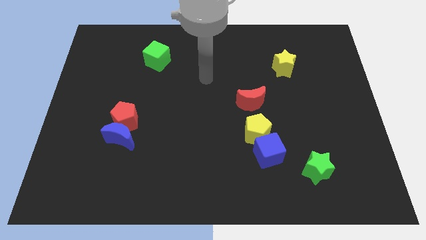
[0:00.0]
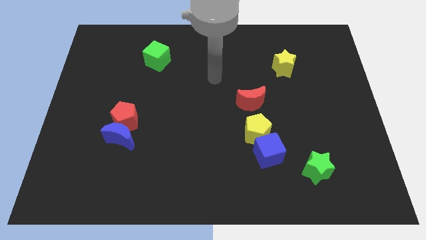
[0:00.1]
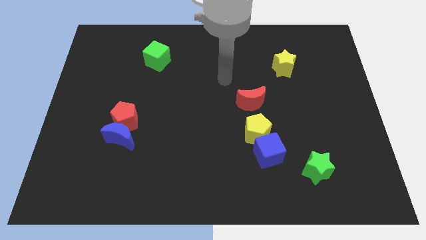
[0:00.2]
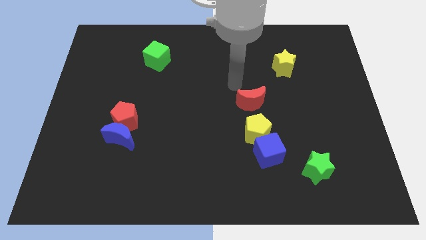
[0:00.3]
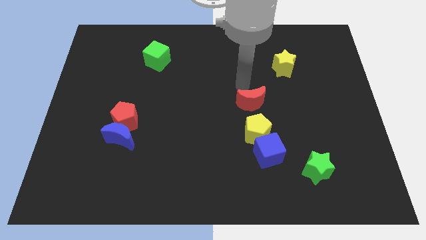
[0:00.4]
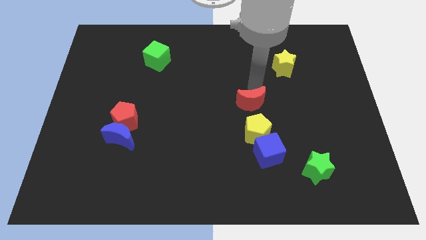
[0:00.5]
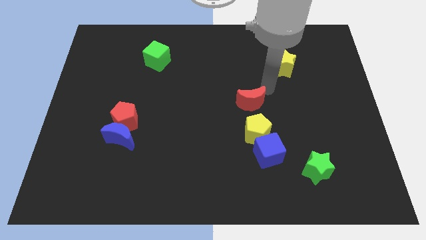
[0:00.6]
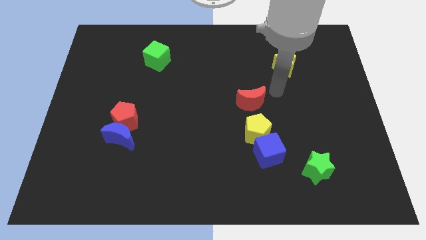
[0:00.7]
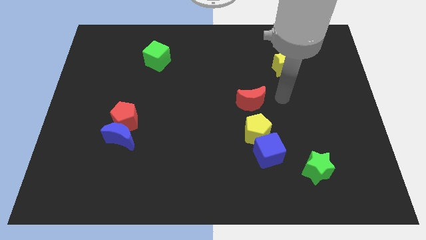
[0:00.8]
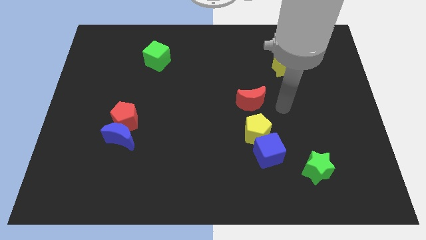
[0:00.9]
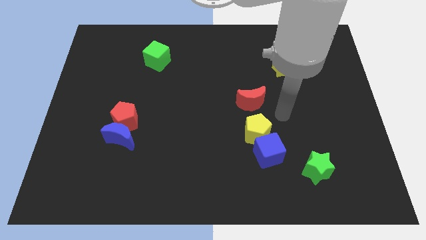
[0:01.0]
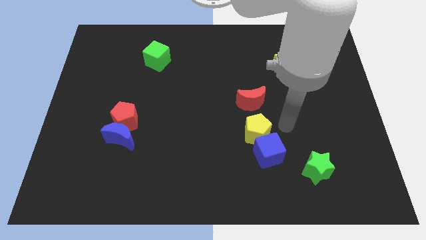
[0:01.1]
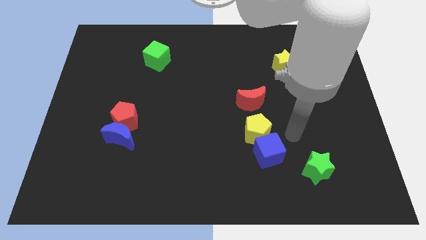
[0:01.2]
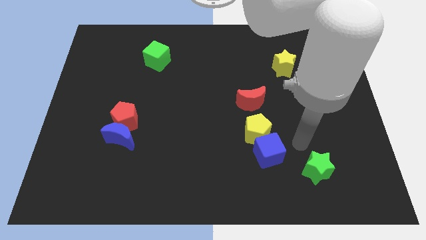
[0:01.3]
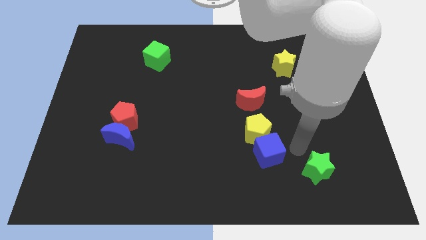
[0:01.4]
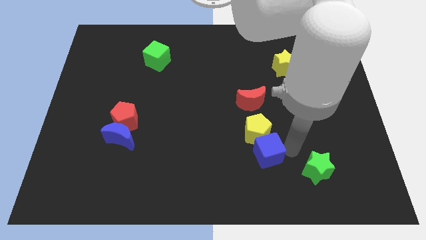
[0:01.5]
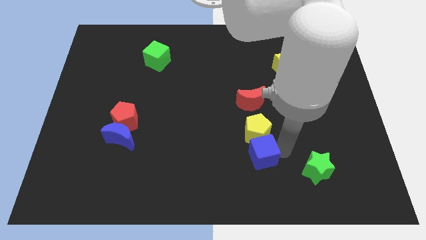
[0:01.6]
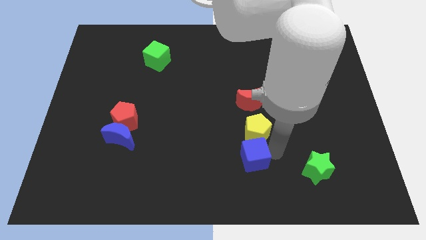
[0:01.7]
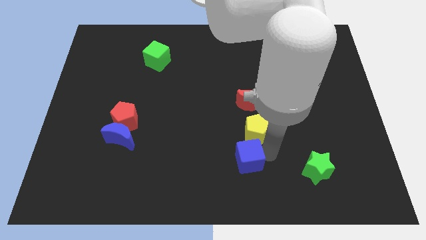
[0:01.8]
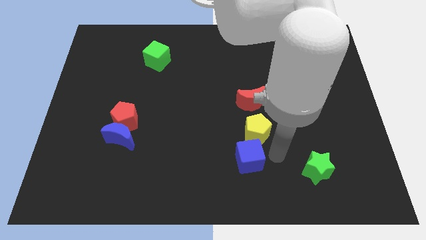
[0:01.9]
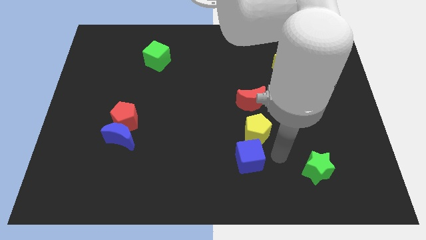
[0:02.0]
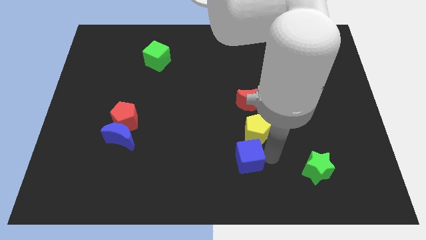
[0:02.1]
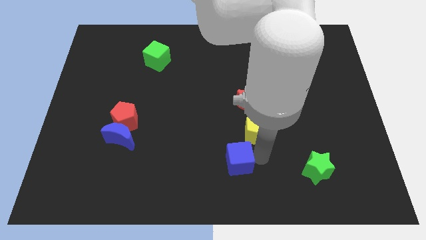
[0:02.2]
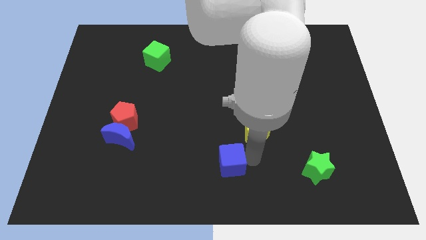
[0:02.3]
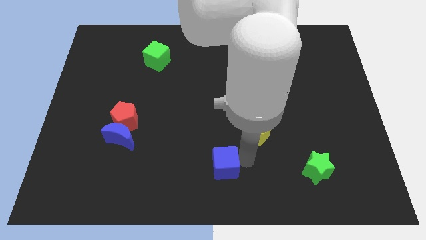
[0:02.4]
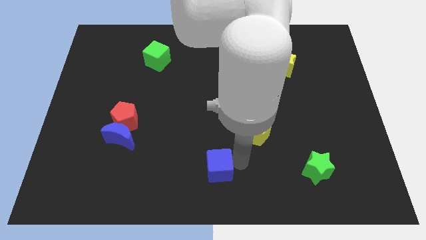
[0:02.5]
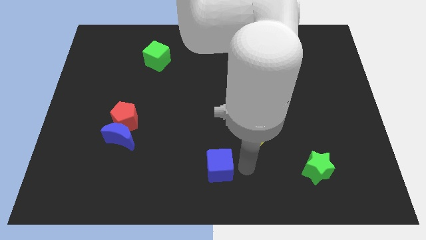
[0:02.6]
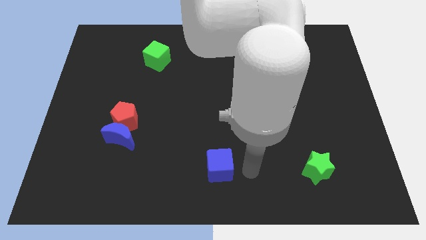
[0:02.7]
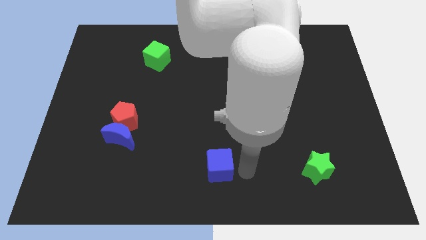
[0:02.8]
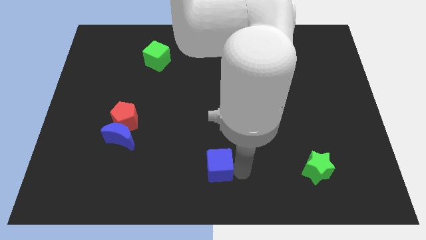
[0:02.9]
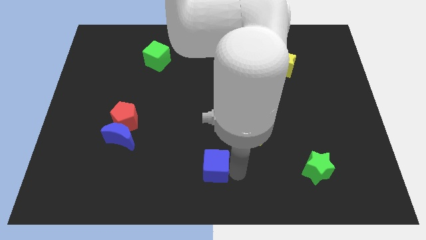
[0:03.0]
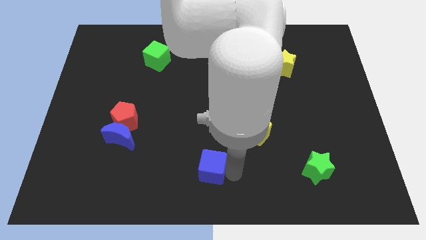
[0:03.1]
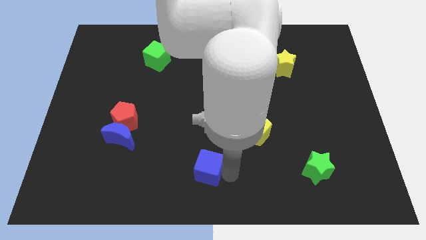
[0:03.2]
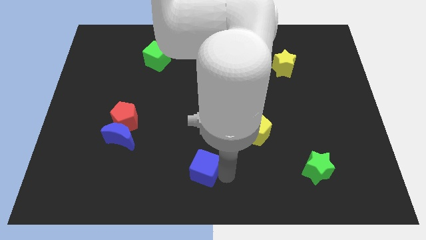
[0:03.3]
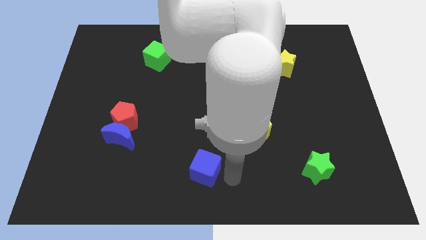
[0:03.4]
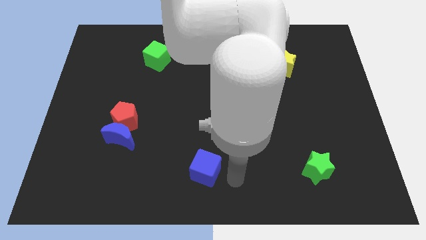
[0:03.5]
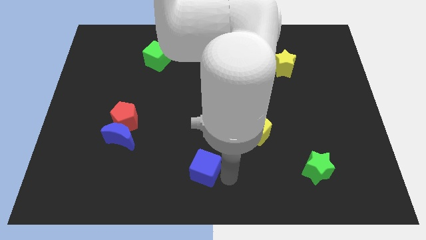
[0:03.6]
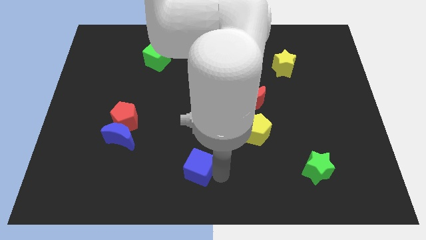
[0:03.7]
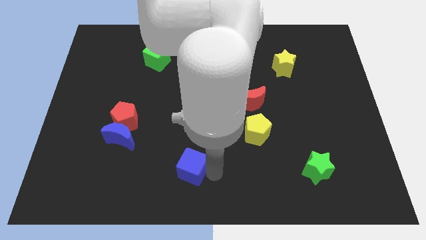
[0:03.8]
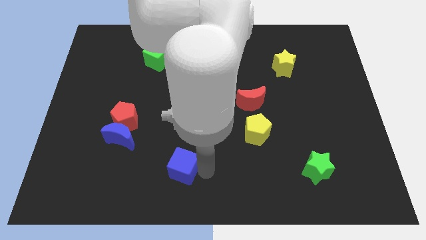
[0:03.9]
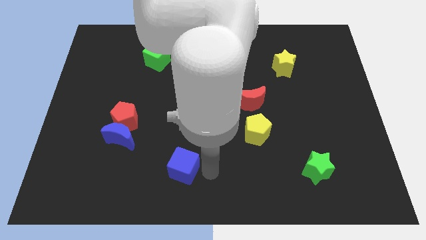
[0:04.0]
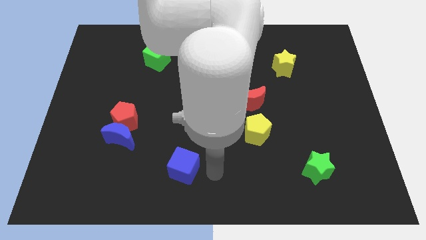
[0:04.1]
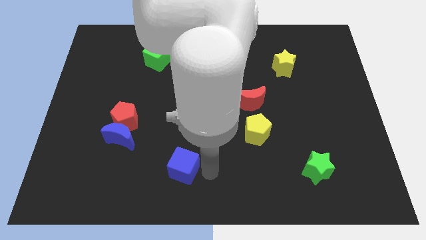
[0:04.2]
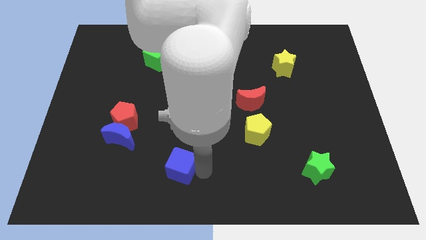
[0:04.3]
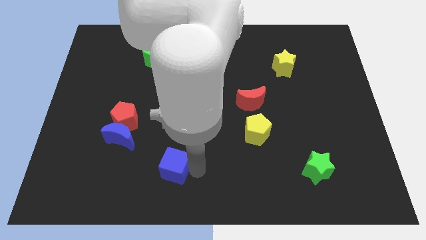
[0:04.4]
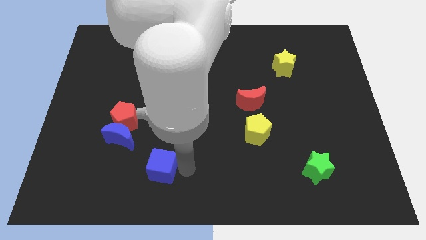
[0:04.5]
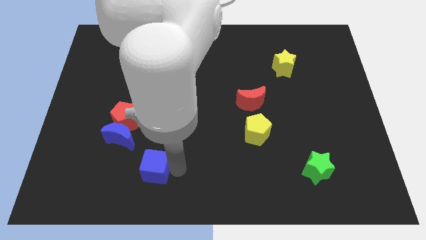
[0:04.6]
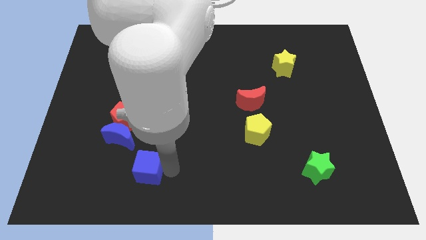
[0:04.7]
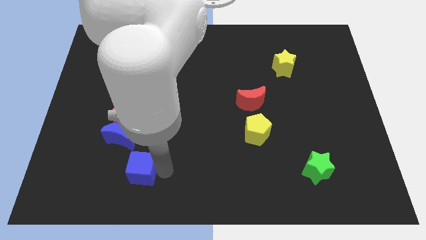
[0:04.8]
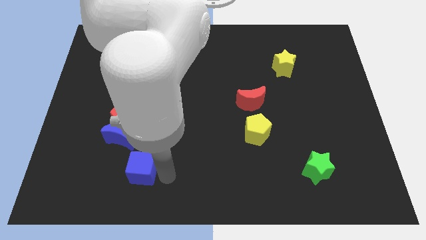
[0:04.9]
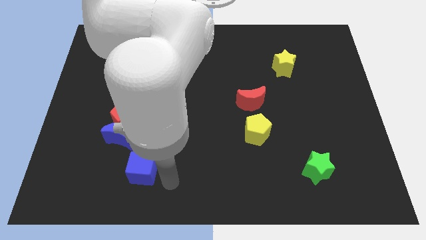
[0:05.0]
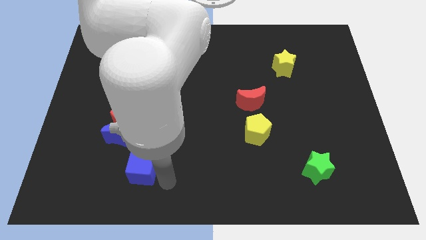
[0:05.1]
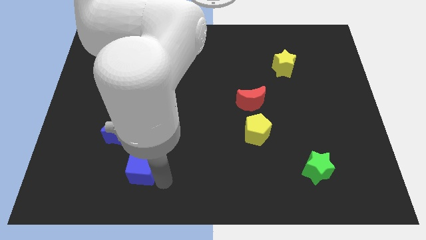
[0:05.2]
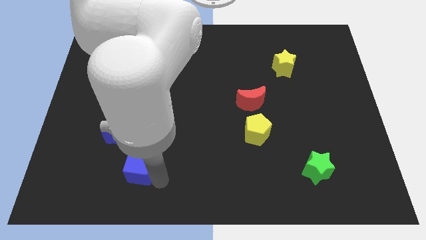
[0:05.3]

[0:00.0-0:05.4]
move the blue cube to the bottom of the red pentagon

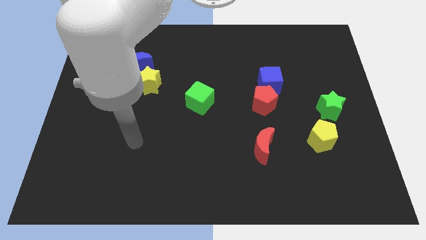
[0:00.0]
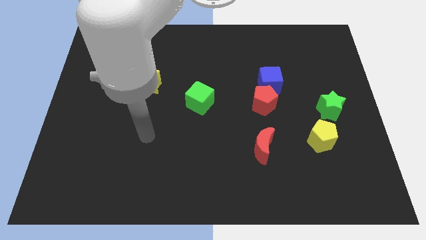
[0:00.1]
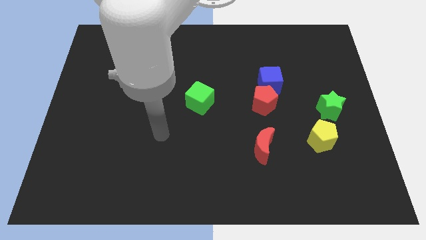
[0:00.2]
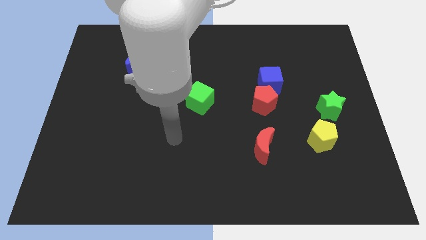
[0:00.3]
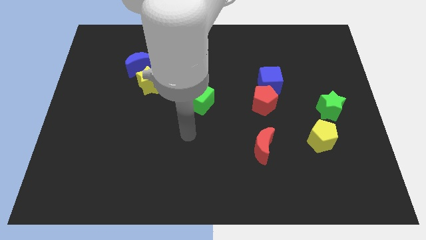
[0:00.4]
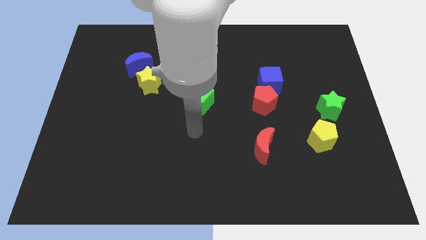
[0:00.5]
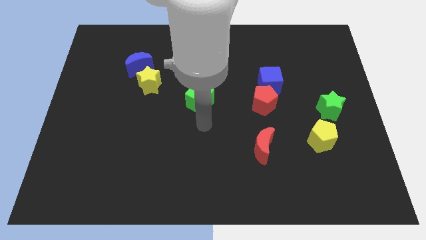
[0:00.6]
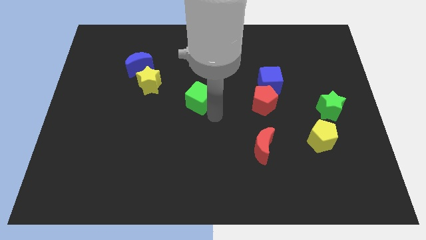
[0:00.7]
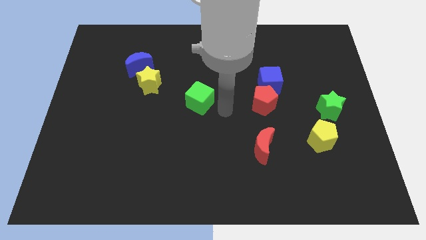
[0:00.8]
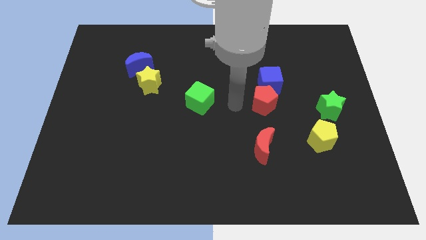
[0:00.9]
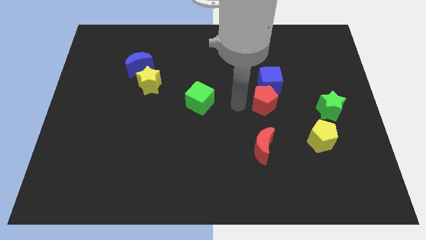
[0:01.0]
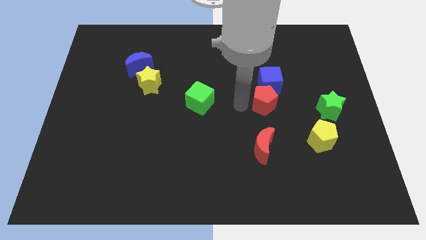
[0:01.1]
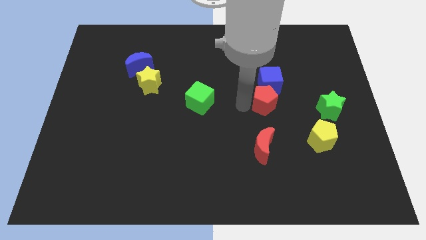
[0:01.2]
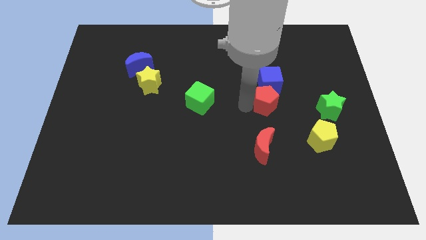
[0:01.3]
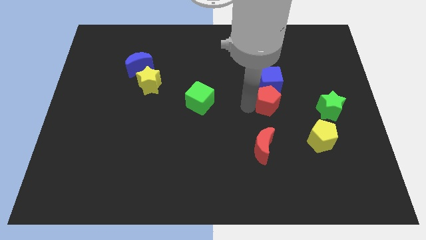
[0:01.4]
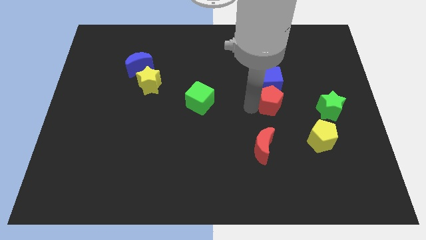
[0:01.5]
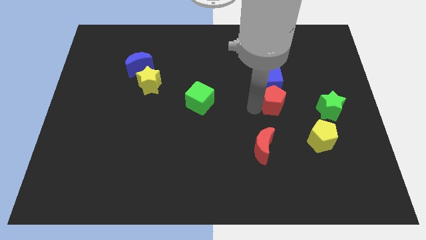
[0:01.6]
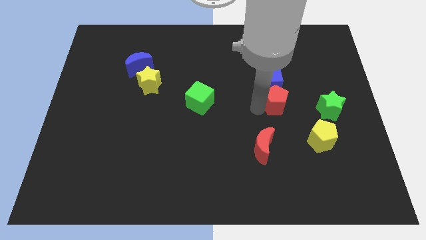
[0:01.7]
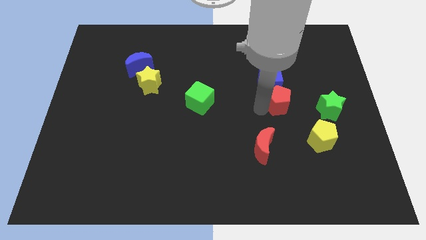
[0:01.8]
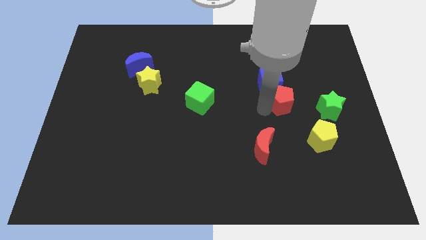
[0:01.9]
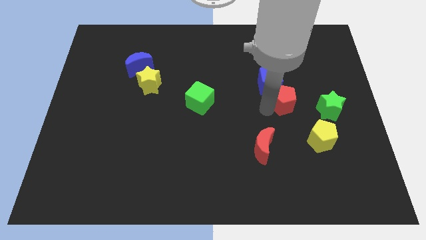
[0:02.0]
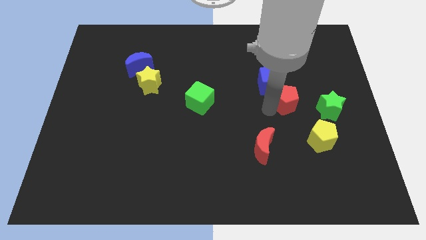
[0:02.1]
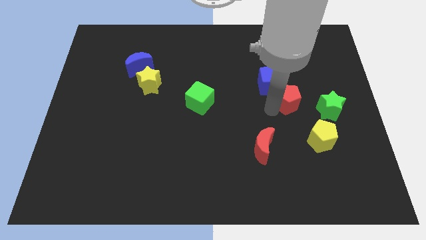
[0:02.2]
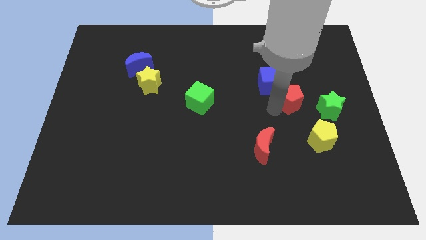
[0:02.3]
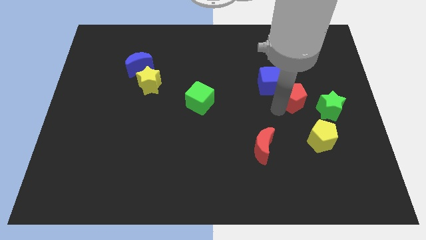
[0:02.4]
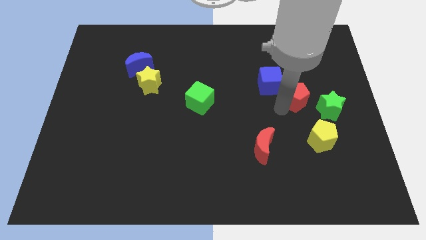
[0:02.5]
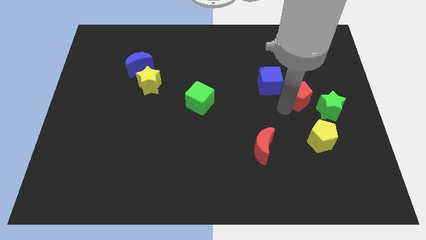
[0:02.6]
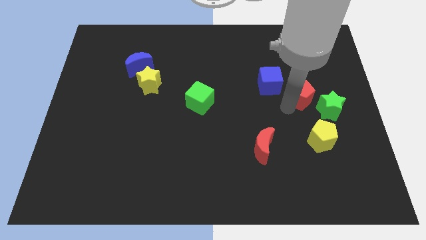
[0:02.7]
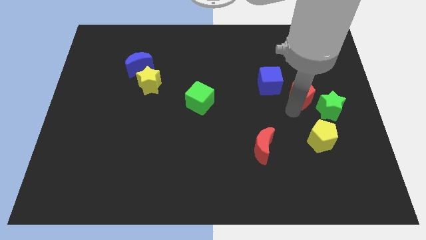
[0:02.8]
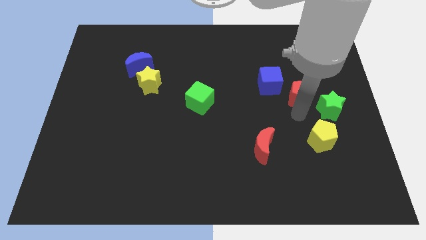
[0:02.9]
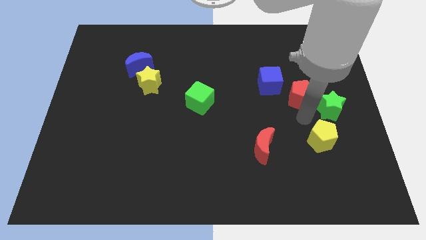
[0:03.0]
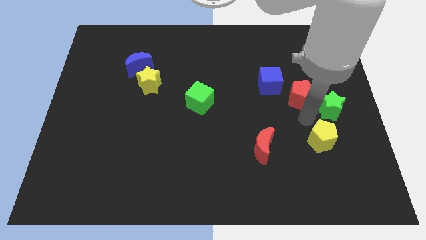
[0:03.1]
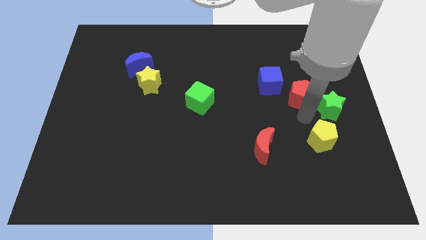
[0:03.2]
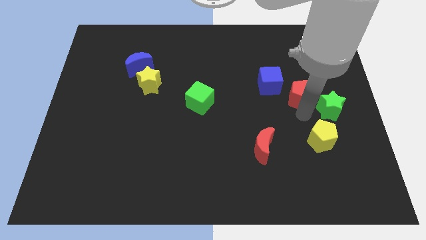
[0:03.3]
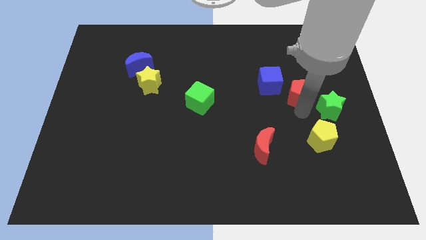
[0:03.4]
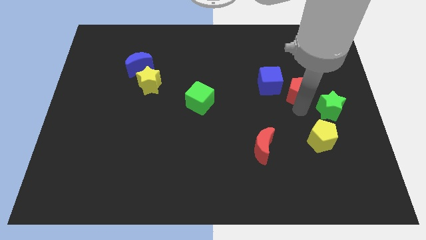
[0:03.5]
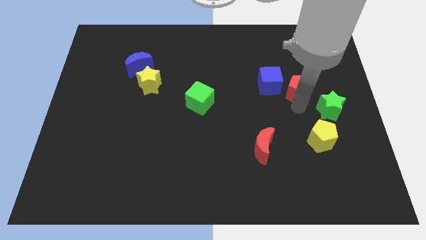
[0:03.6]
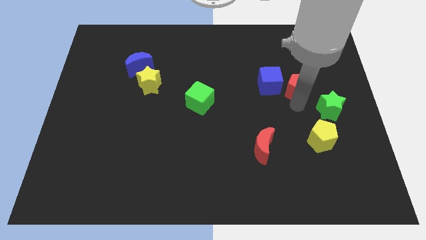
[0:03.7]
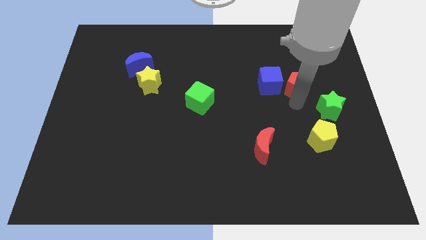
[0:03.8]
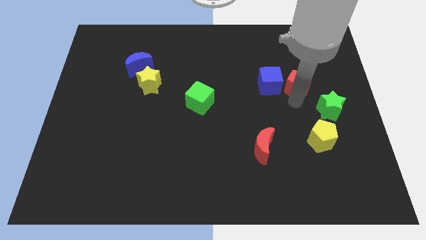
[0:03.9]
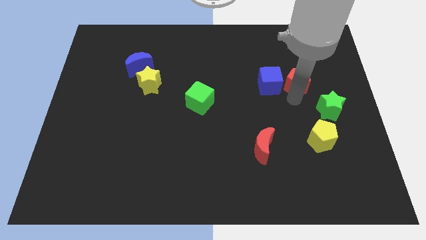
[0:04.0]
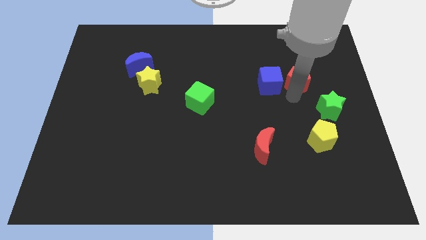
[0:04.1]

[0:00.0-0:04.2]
move the red pentagon diagonally up and to the right of the blue cube
